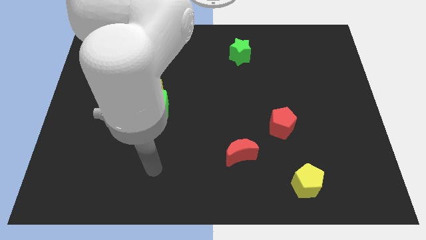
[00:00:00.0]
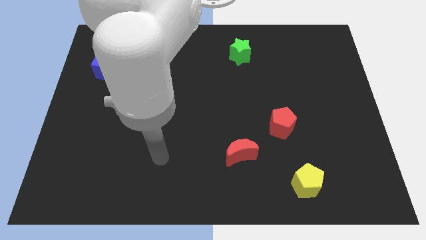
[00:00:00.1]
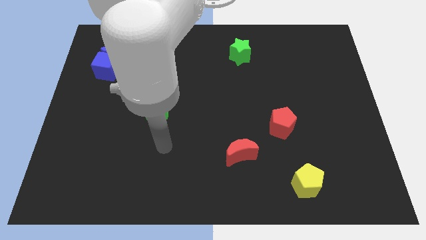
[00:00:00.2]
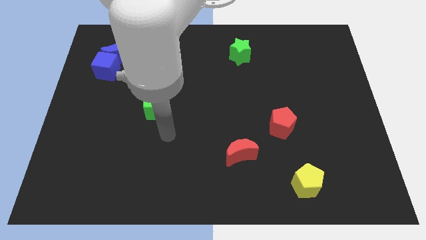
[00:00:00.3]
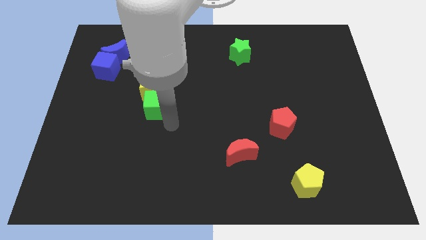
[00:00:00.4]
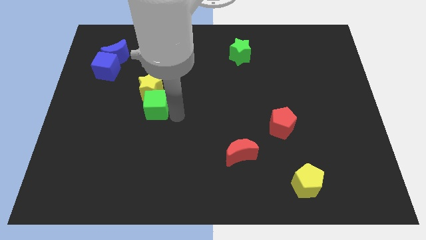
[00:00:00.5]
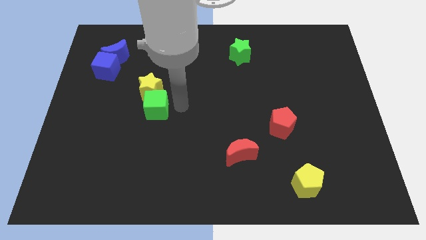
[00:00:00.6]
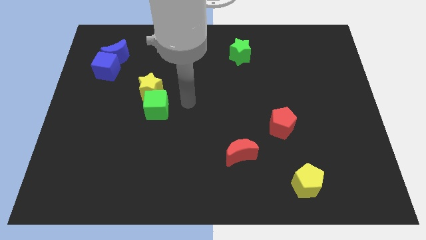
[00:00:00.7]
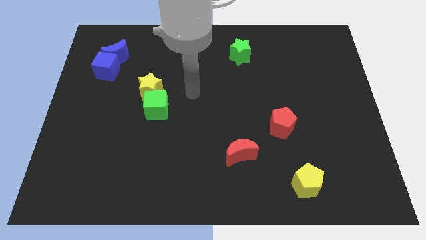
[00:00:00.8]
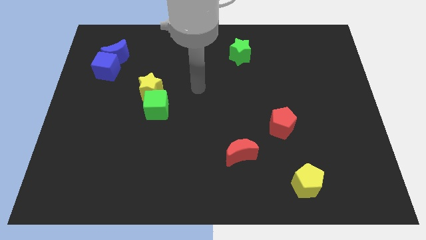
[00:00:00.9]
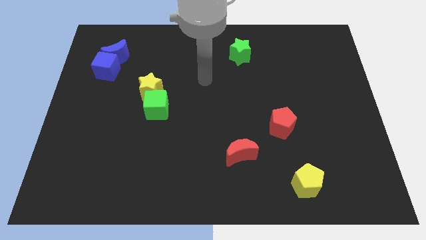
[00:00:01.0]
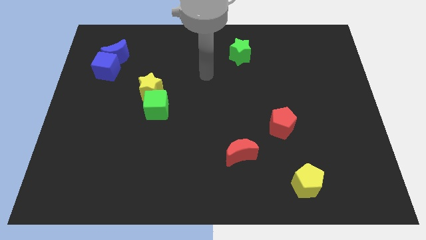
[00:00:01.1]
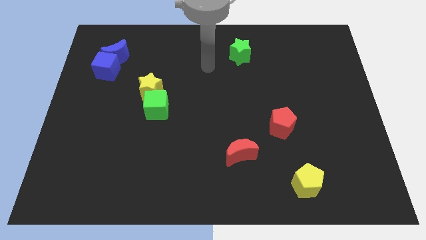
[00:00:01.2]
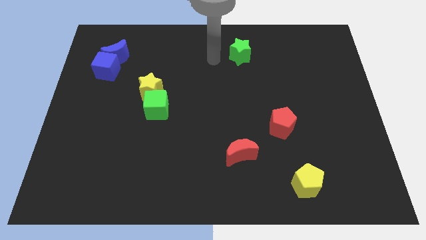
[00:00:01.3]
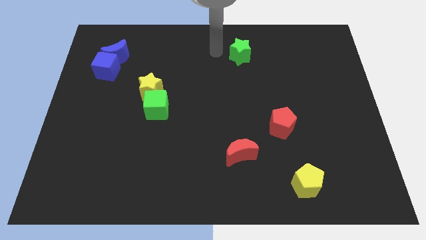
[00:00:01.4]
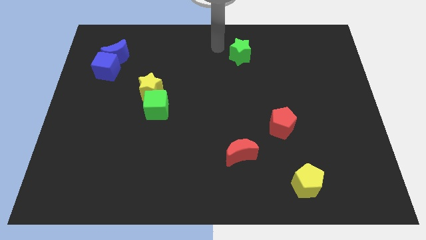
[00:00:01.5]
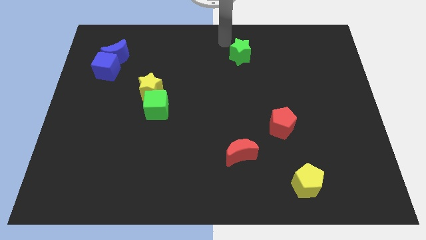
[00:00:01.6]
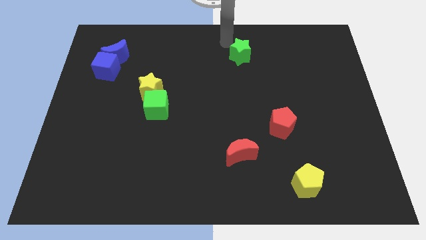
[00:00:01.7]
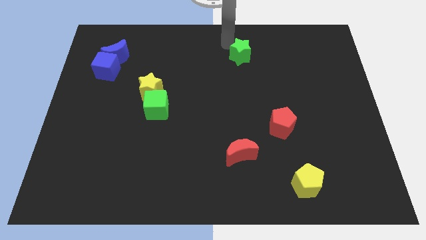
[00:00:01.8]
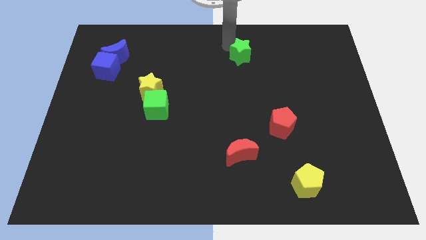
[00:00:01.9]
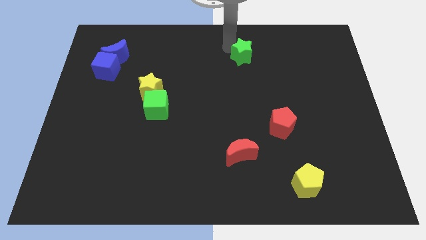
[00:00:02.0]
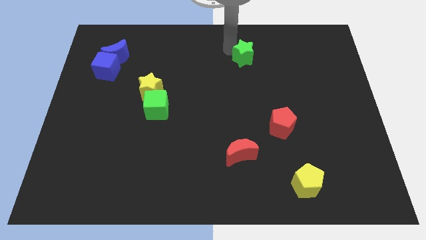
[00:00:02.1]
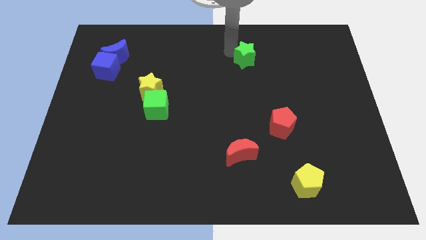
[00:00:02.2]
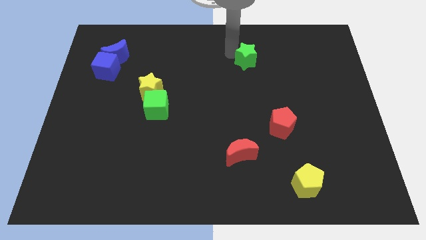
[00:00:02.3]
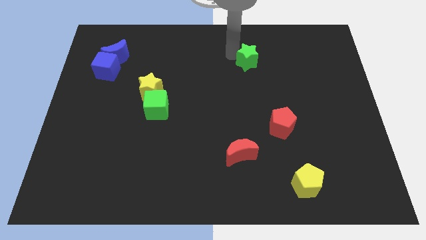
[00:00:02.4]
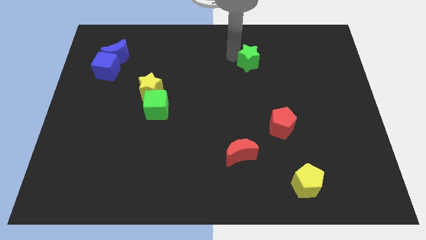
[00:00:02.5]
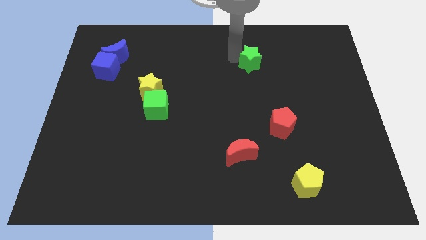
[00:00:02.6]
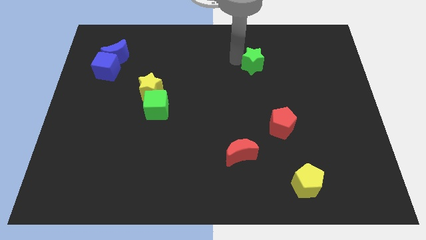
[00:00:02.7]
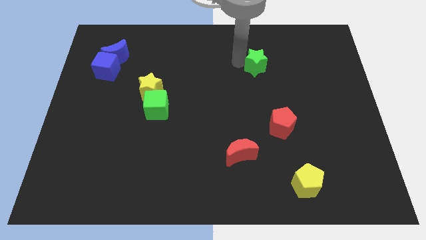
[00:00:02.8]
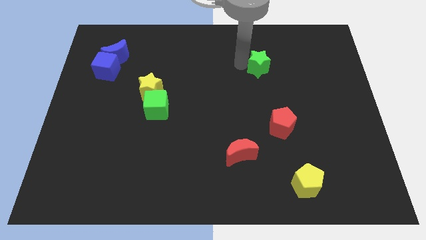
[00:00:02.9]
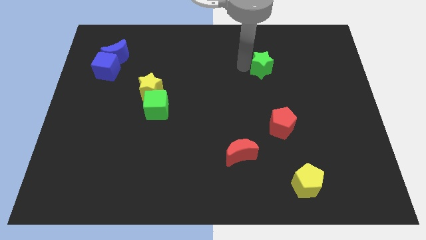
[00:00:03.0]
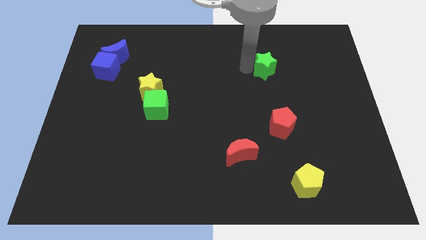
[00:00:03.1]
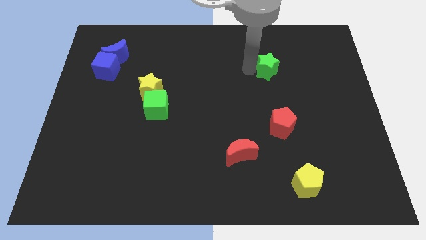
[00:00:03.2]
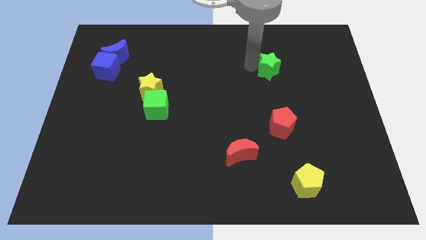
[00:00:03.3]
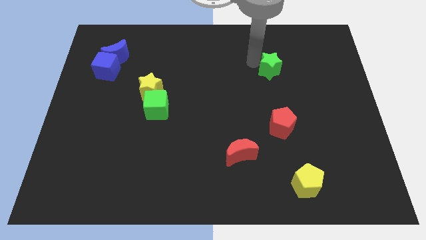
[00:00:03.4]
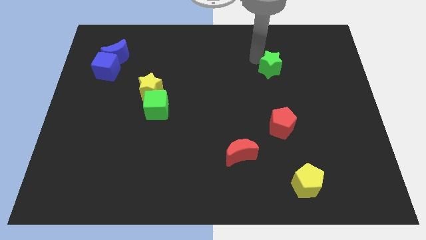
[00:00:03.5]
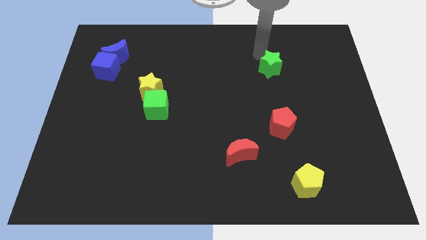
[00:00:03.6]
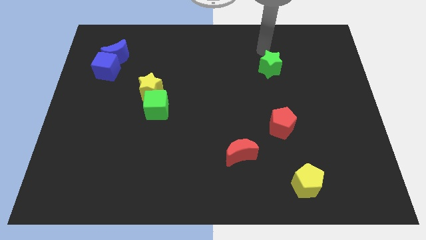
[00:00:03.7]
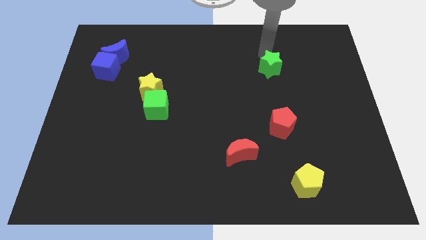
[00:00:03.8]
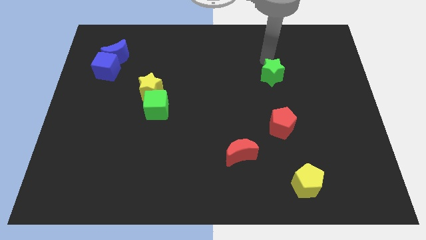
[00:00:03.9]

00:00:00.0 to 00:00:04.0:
move the green star above the red pentagon

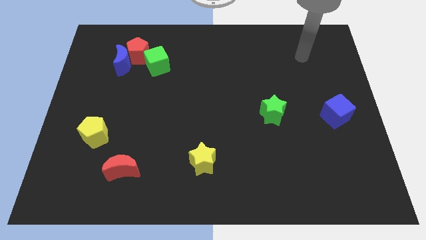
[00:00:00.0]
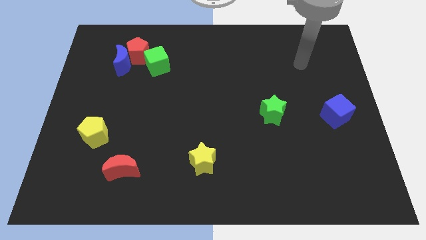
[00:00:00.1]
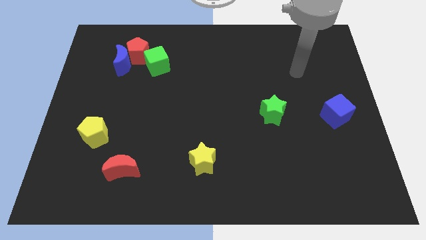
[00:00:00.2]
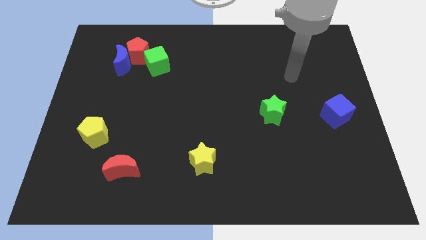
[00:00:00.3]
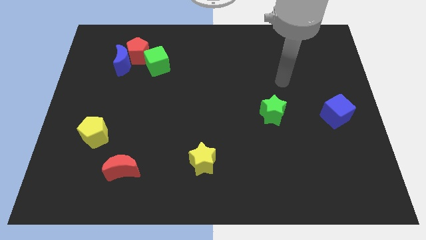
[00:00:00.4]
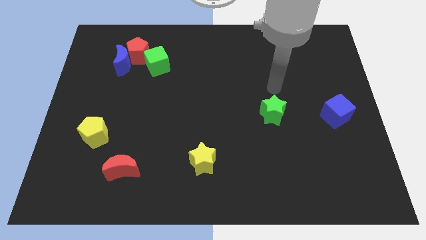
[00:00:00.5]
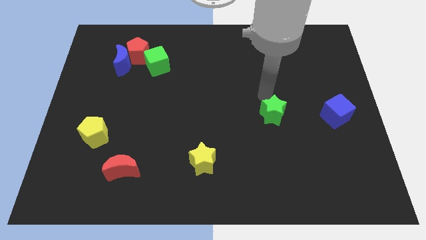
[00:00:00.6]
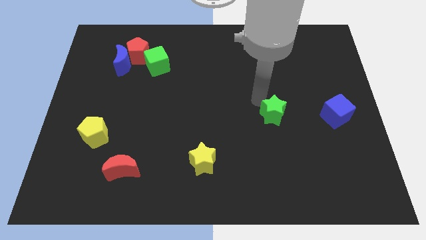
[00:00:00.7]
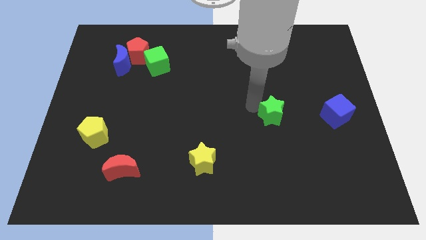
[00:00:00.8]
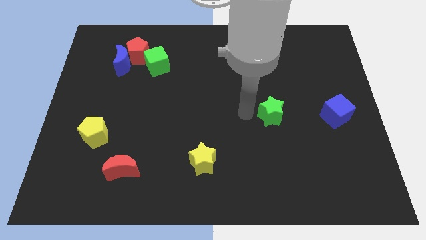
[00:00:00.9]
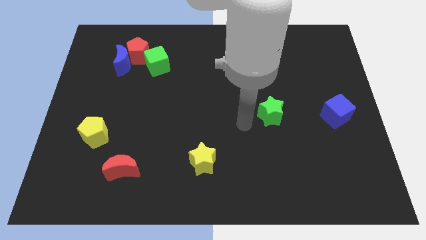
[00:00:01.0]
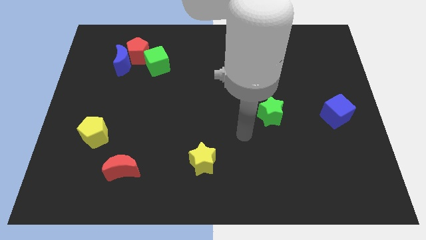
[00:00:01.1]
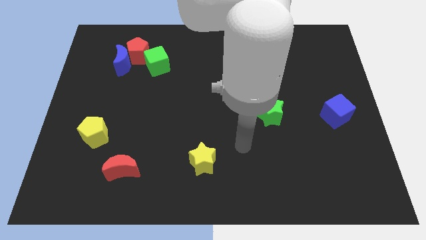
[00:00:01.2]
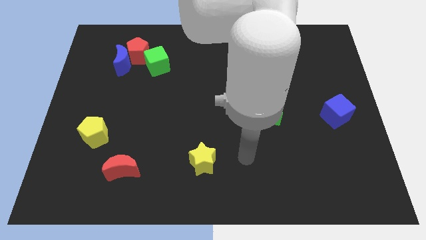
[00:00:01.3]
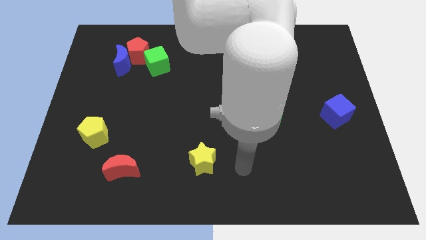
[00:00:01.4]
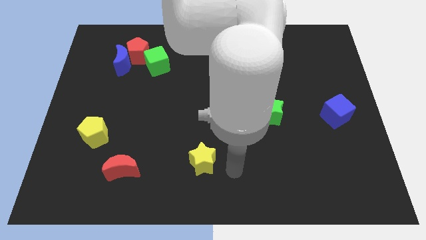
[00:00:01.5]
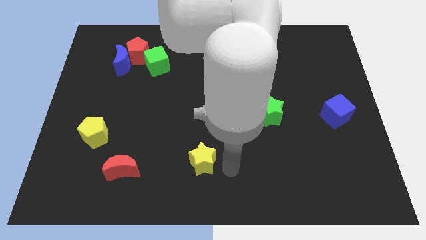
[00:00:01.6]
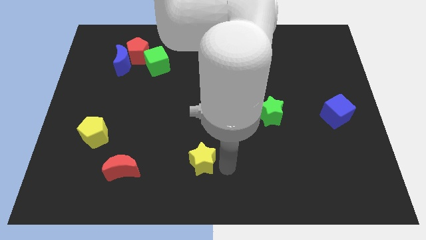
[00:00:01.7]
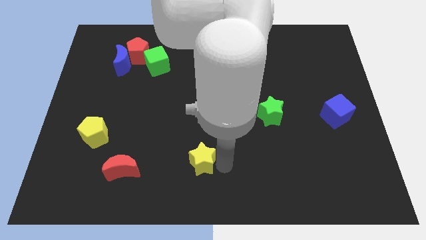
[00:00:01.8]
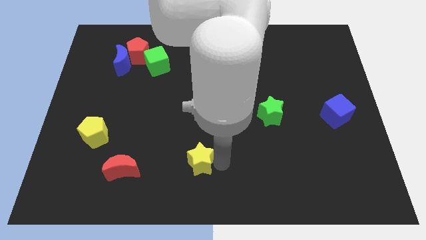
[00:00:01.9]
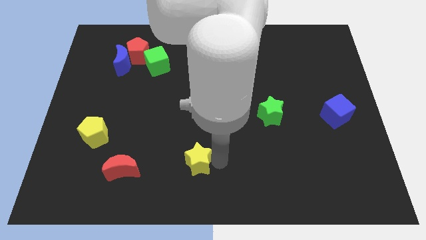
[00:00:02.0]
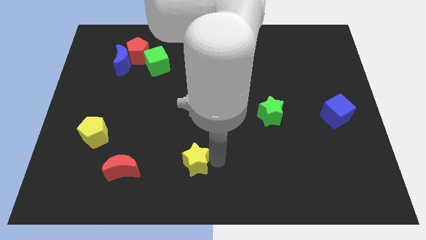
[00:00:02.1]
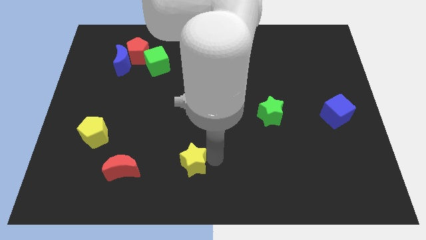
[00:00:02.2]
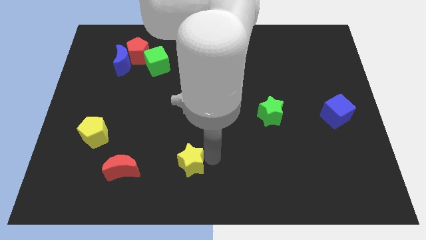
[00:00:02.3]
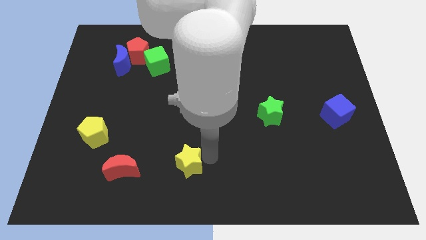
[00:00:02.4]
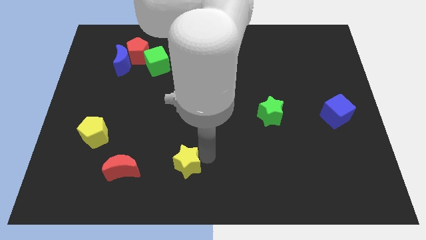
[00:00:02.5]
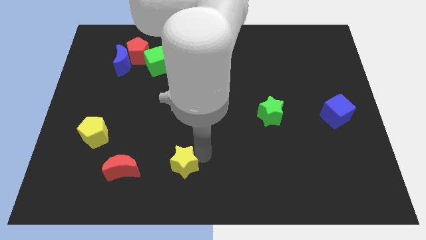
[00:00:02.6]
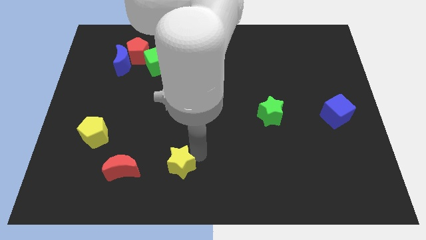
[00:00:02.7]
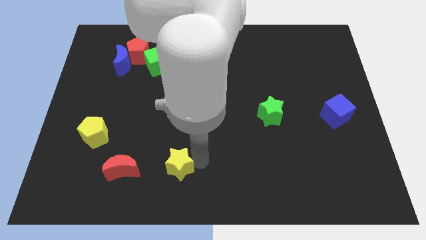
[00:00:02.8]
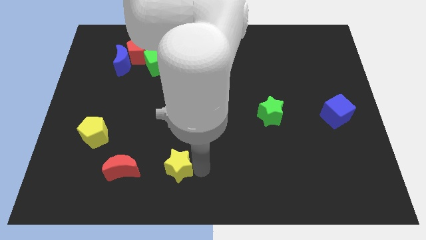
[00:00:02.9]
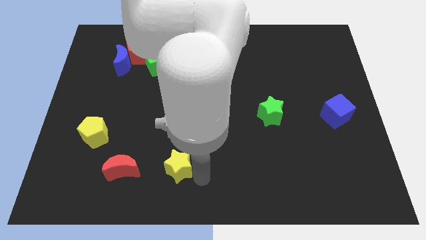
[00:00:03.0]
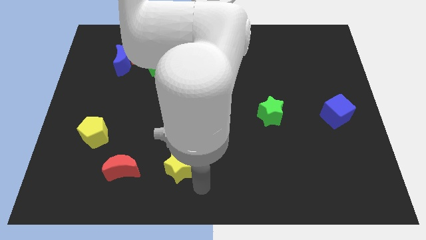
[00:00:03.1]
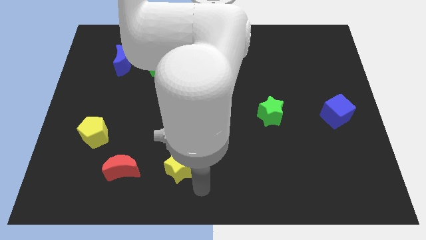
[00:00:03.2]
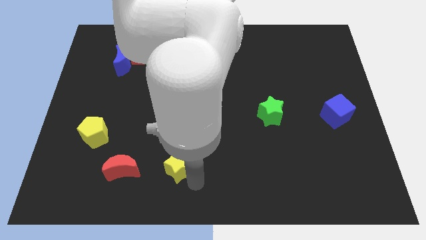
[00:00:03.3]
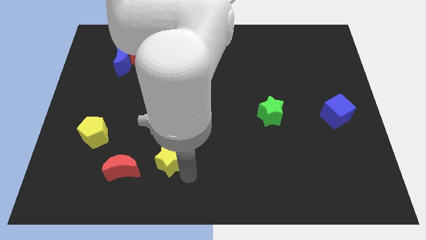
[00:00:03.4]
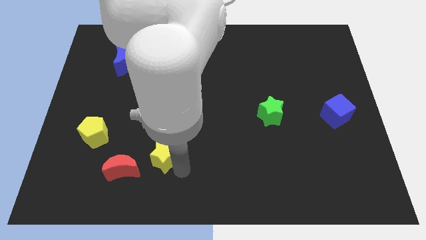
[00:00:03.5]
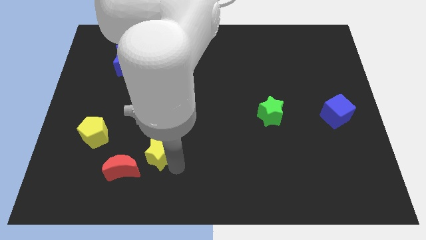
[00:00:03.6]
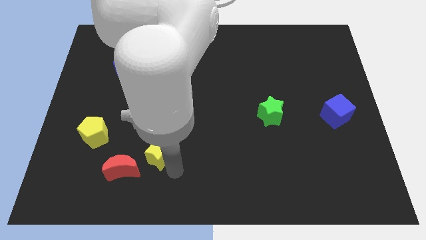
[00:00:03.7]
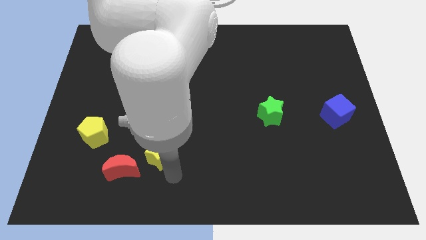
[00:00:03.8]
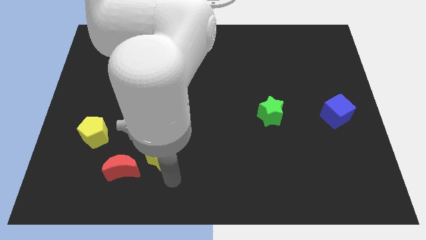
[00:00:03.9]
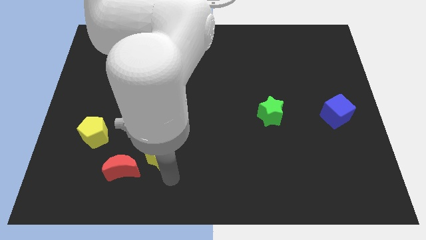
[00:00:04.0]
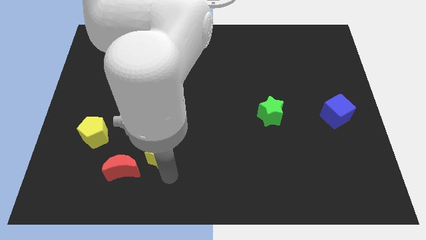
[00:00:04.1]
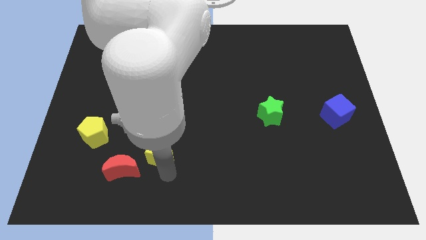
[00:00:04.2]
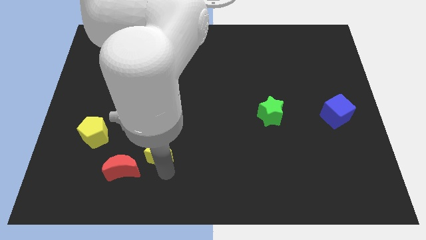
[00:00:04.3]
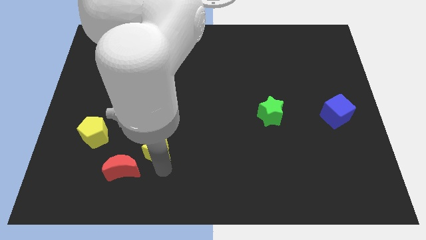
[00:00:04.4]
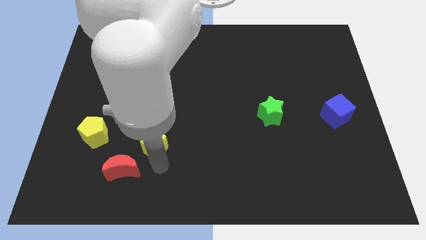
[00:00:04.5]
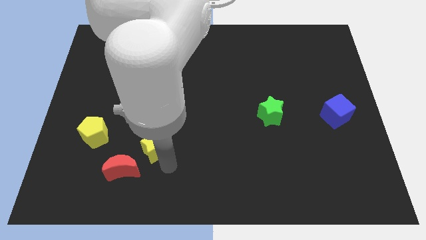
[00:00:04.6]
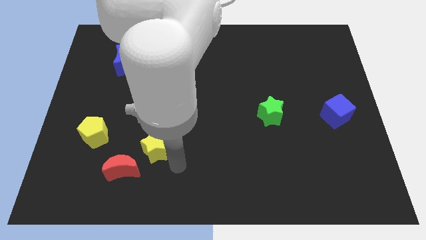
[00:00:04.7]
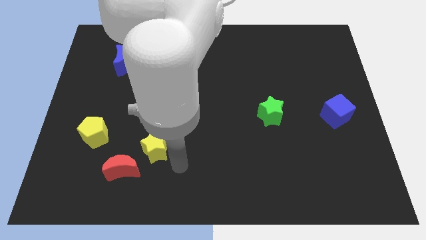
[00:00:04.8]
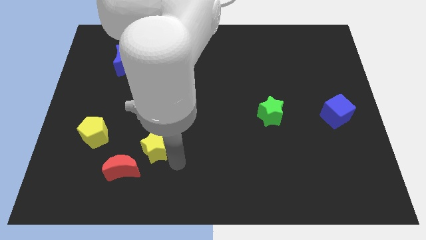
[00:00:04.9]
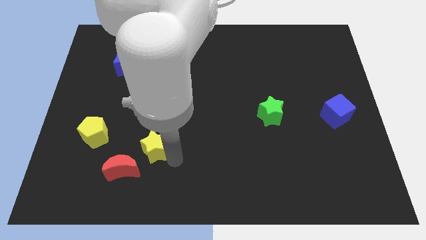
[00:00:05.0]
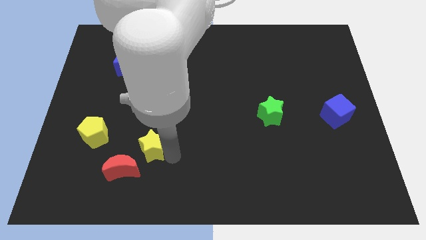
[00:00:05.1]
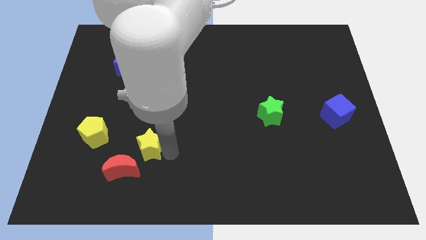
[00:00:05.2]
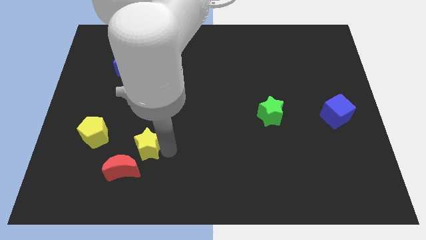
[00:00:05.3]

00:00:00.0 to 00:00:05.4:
put the yellow star to the top side of the red moon
